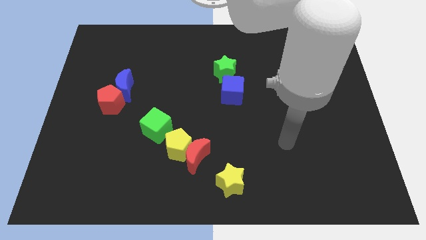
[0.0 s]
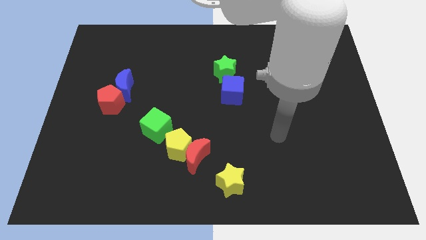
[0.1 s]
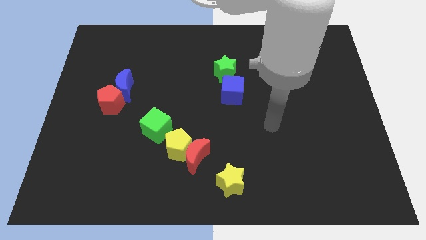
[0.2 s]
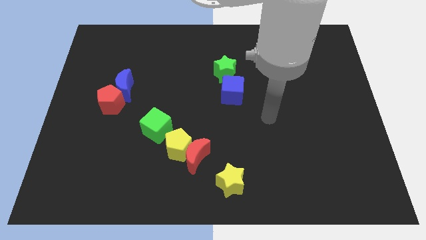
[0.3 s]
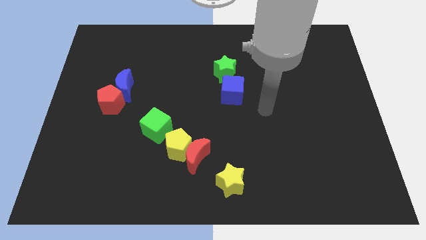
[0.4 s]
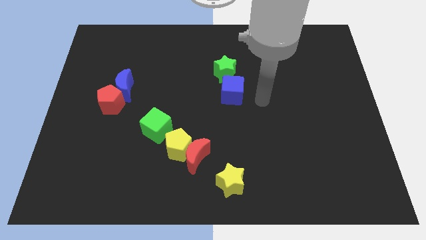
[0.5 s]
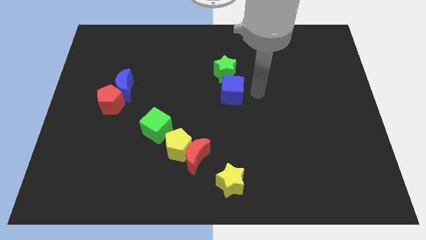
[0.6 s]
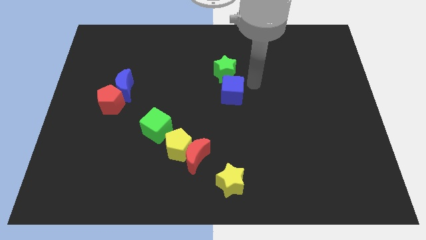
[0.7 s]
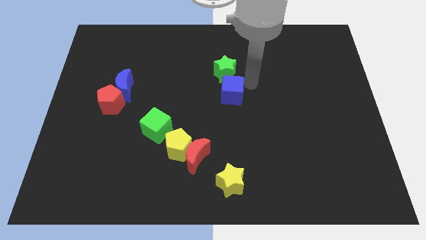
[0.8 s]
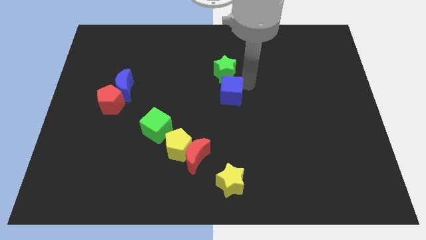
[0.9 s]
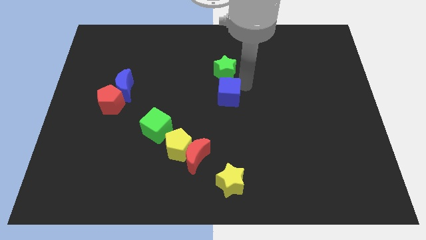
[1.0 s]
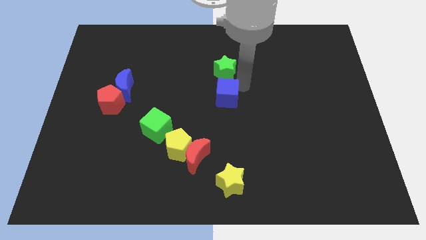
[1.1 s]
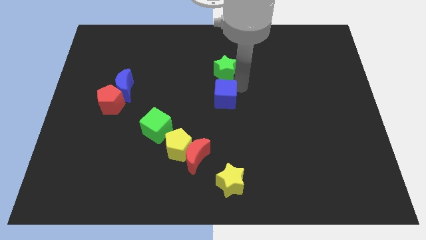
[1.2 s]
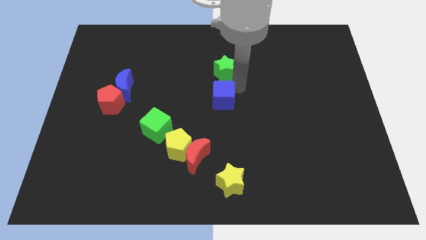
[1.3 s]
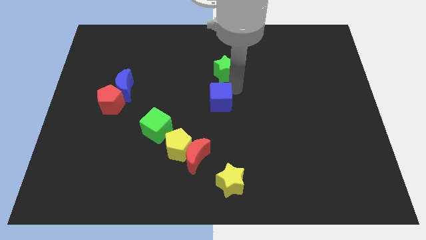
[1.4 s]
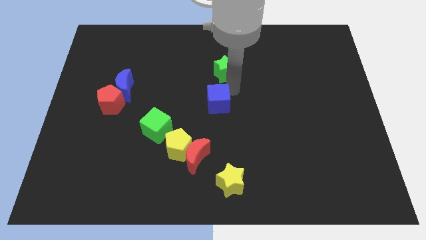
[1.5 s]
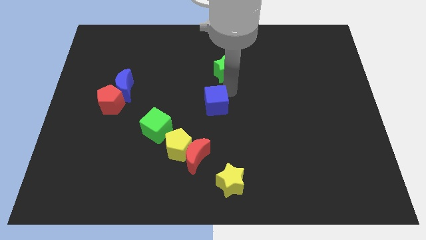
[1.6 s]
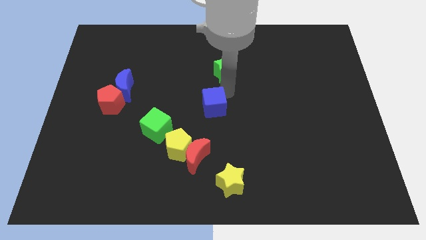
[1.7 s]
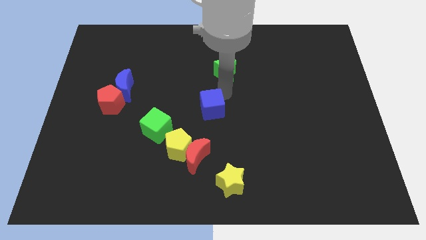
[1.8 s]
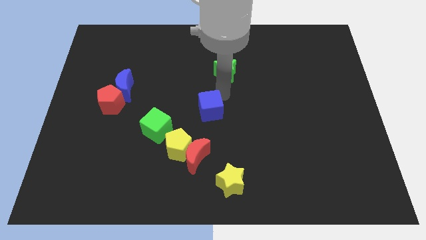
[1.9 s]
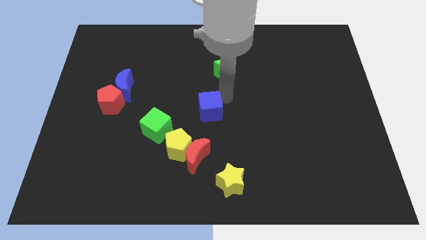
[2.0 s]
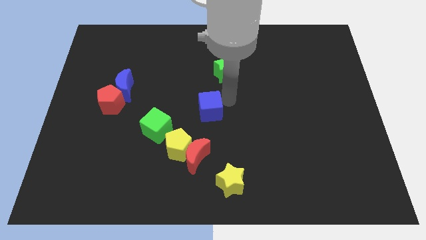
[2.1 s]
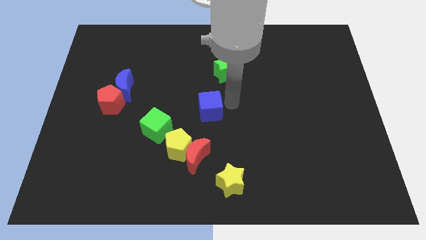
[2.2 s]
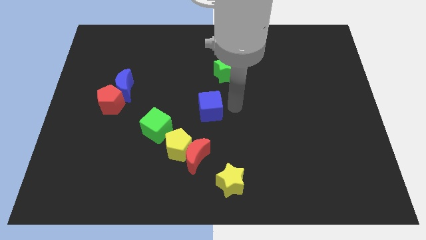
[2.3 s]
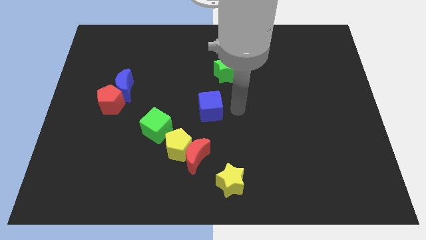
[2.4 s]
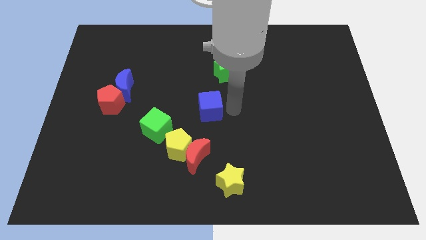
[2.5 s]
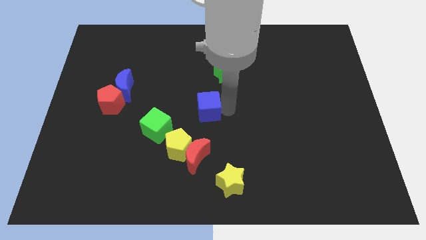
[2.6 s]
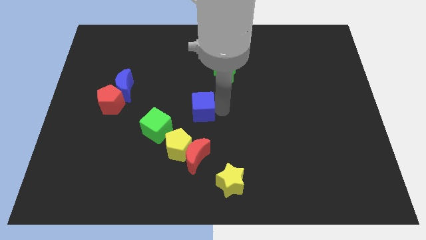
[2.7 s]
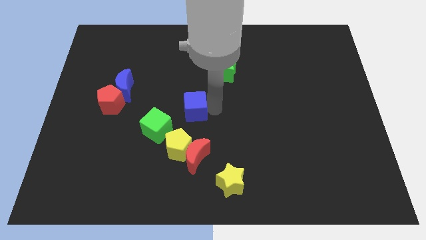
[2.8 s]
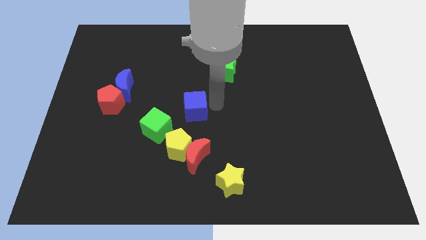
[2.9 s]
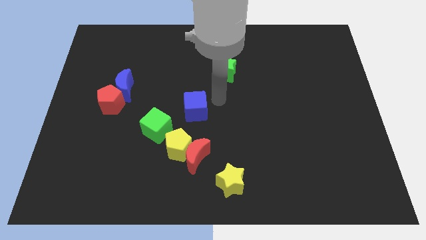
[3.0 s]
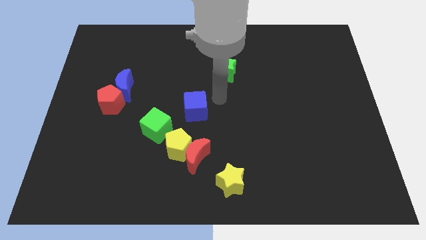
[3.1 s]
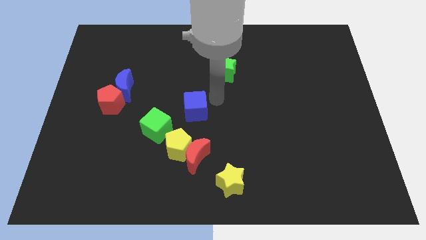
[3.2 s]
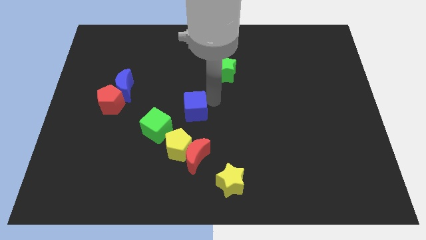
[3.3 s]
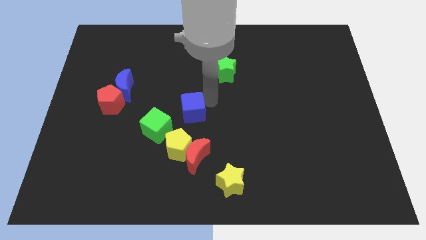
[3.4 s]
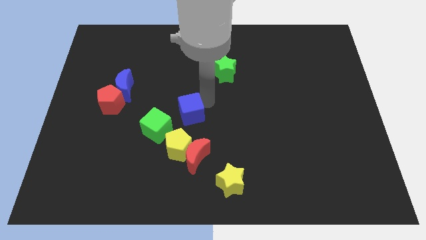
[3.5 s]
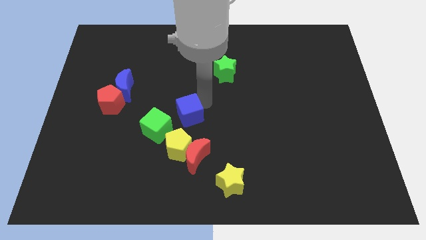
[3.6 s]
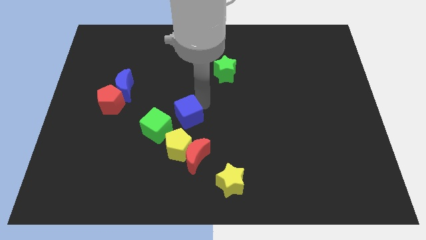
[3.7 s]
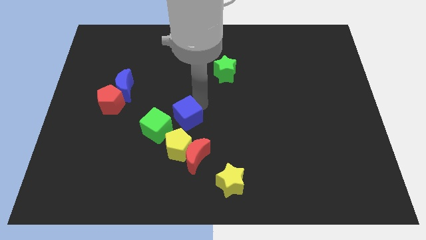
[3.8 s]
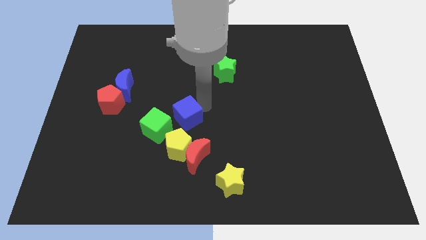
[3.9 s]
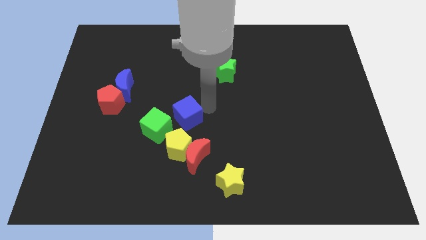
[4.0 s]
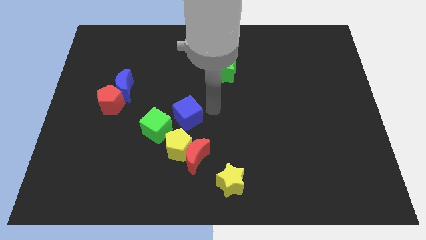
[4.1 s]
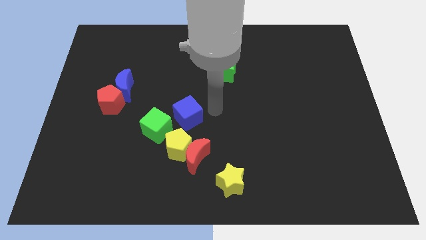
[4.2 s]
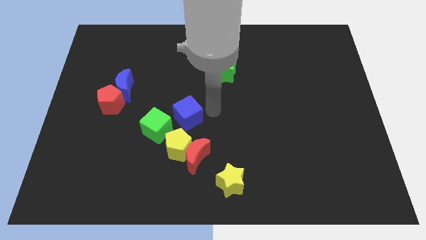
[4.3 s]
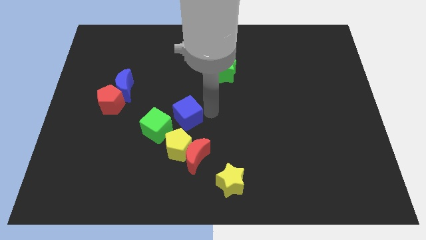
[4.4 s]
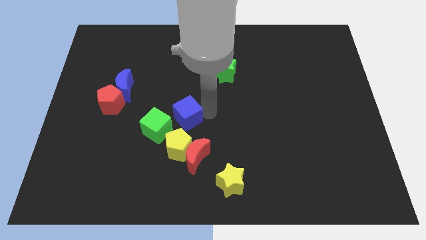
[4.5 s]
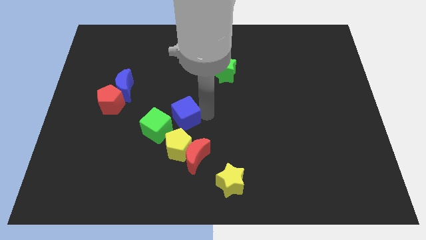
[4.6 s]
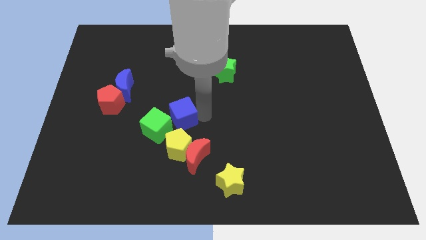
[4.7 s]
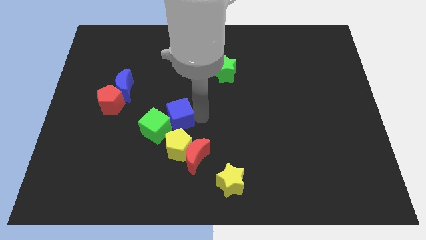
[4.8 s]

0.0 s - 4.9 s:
move the blue cube close to the green cube

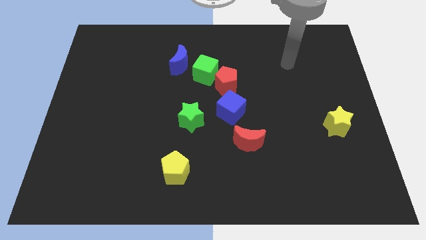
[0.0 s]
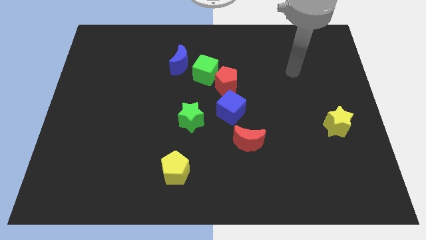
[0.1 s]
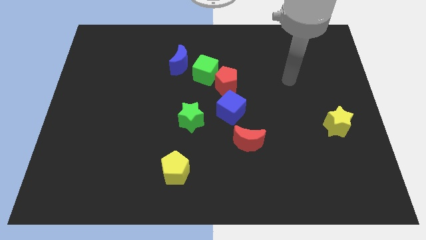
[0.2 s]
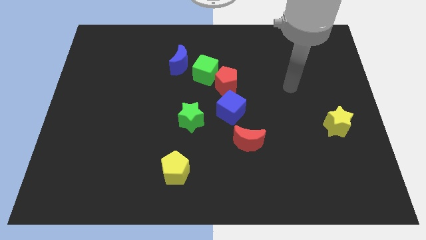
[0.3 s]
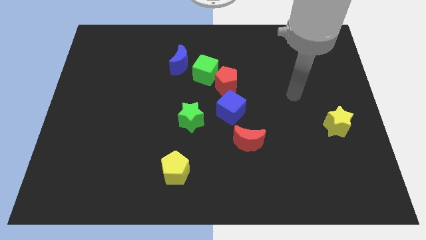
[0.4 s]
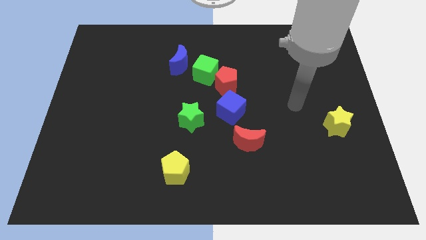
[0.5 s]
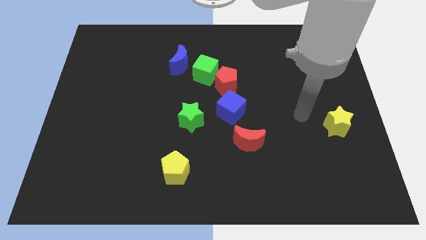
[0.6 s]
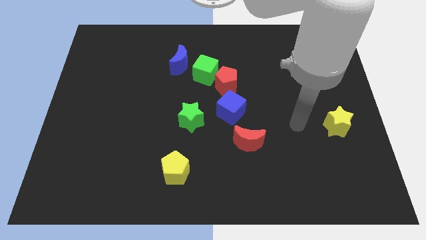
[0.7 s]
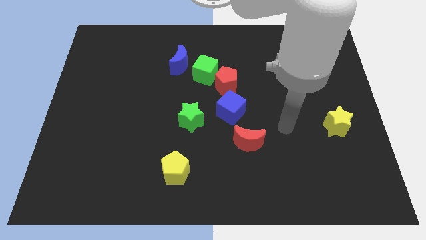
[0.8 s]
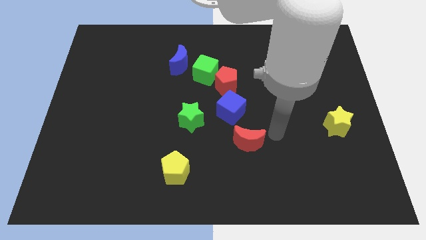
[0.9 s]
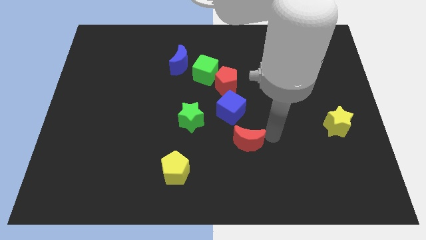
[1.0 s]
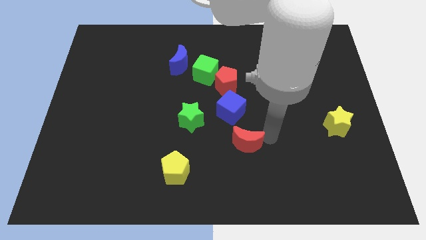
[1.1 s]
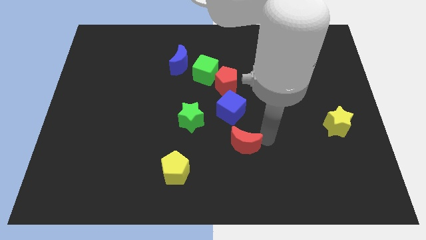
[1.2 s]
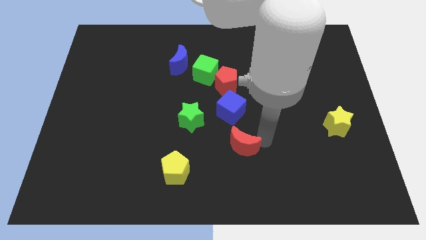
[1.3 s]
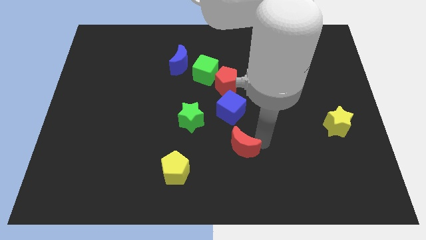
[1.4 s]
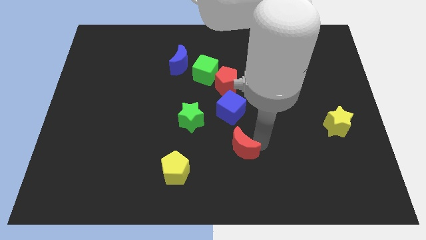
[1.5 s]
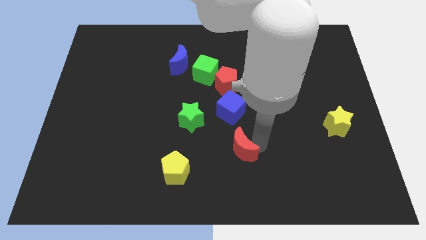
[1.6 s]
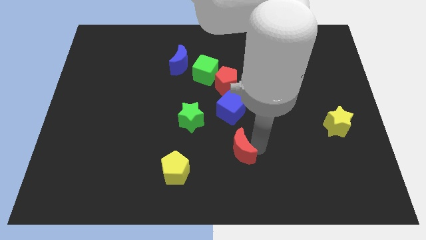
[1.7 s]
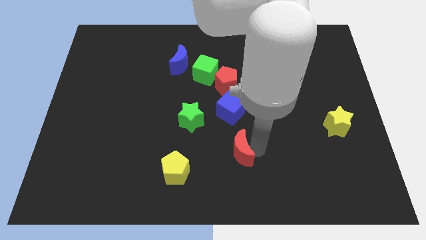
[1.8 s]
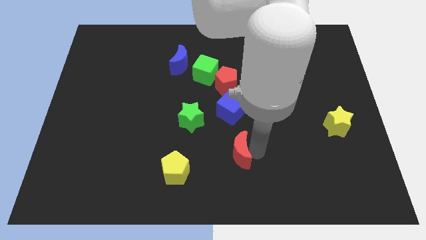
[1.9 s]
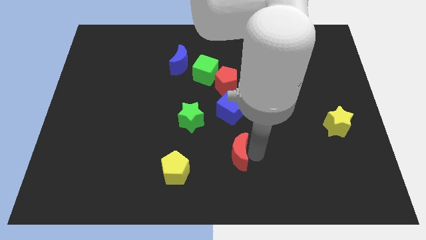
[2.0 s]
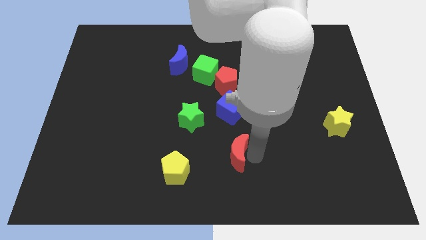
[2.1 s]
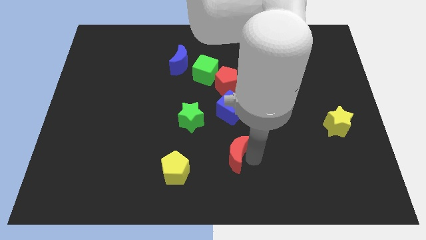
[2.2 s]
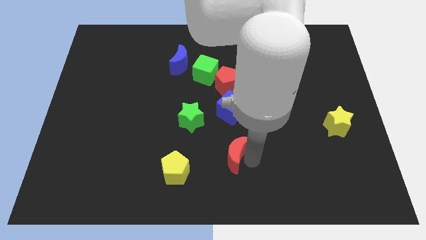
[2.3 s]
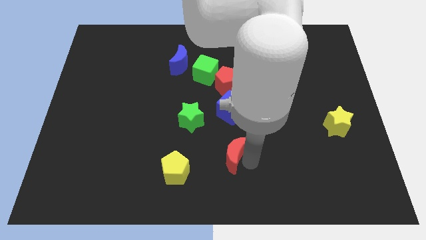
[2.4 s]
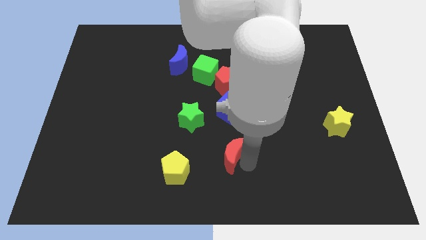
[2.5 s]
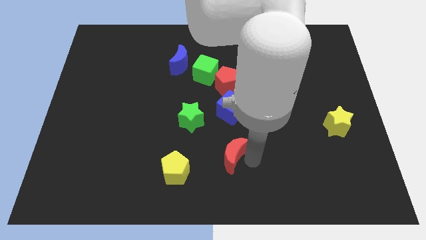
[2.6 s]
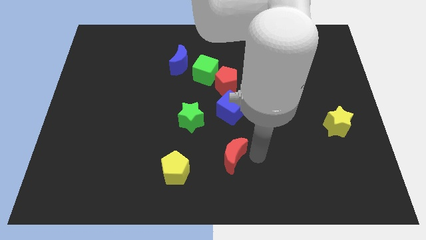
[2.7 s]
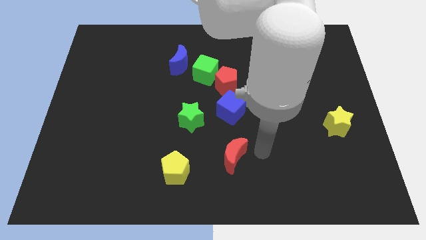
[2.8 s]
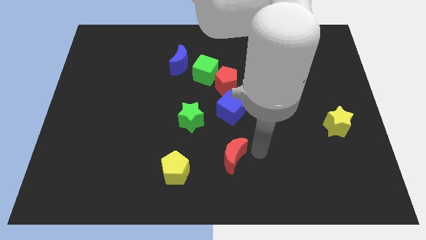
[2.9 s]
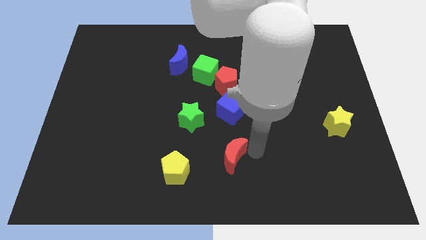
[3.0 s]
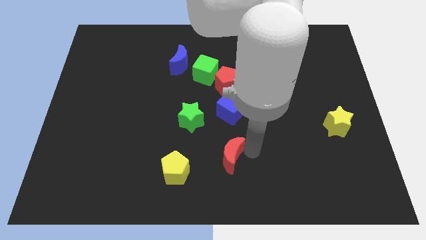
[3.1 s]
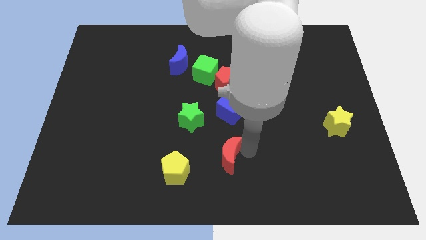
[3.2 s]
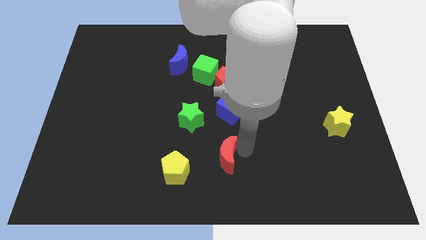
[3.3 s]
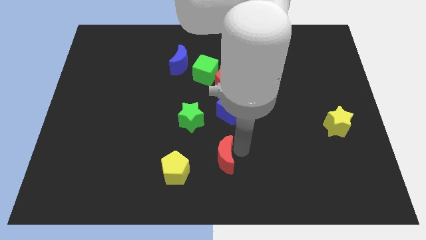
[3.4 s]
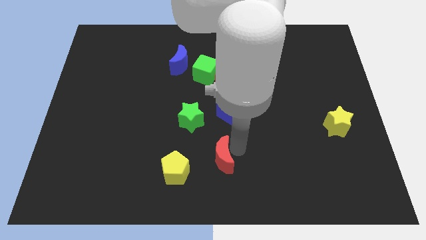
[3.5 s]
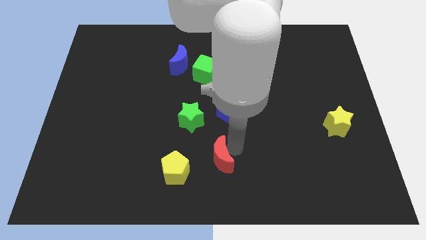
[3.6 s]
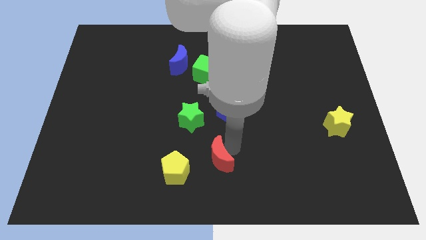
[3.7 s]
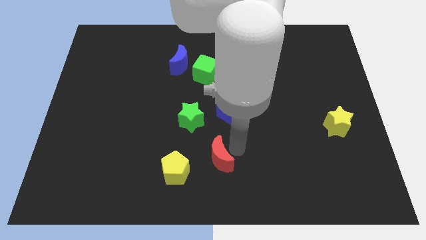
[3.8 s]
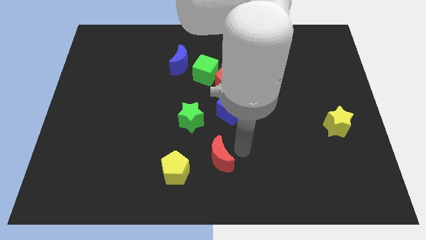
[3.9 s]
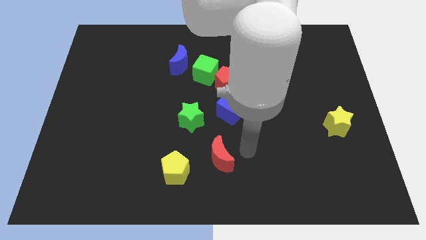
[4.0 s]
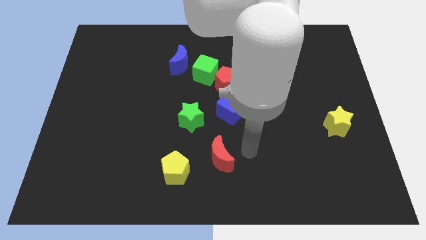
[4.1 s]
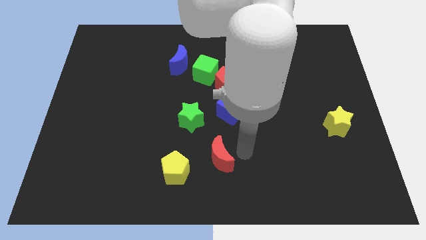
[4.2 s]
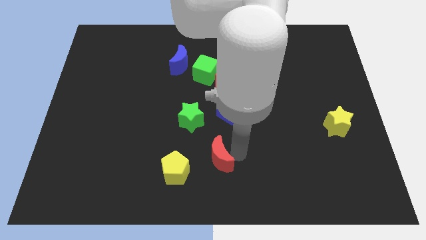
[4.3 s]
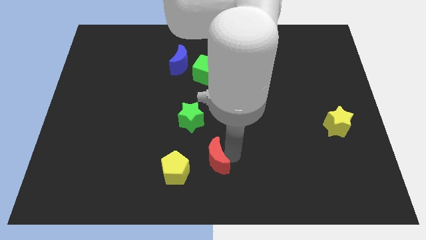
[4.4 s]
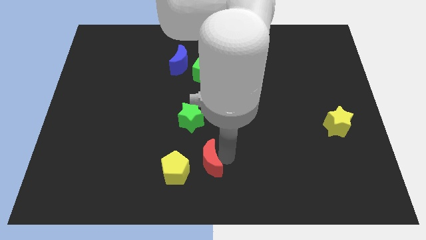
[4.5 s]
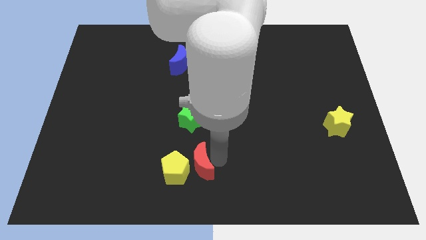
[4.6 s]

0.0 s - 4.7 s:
move the red moon next to the yellow pentagon
